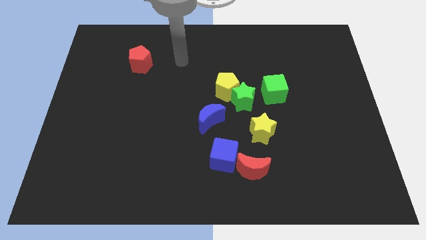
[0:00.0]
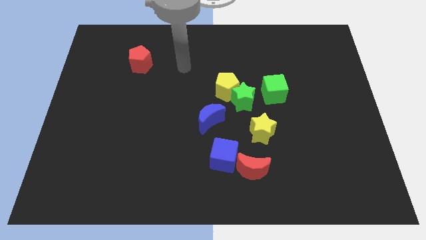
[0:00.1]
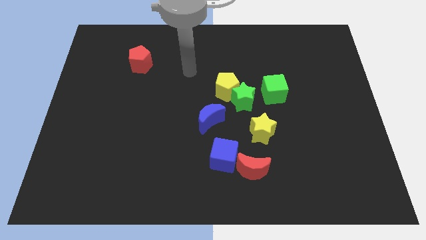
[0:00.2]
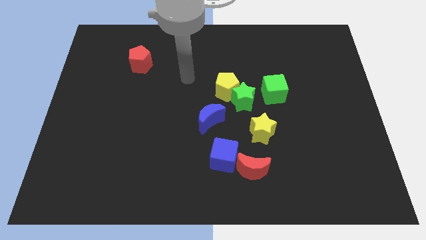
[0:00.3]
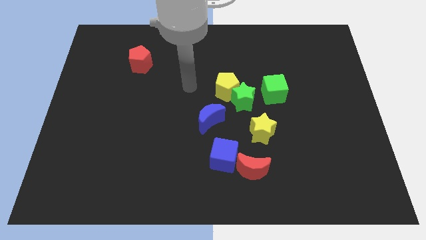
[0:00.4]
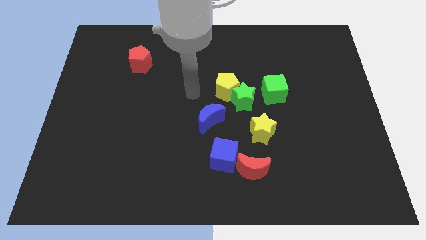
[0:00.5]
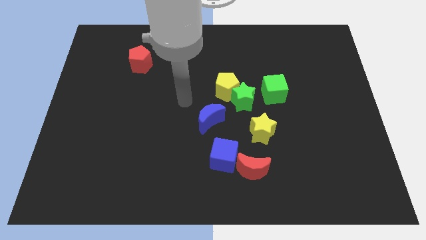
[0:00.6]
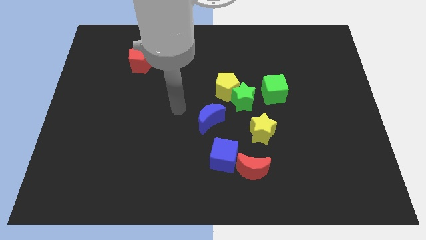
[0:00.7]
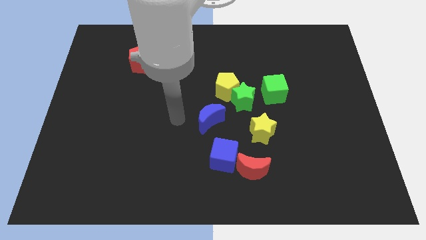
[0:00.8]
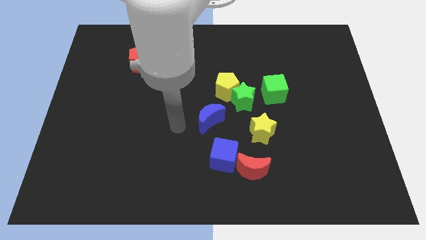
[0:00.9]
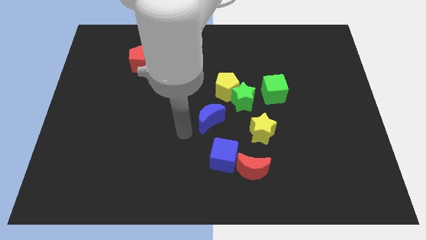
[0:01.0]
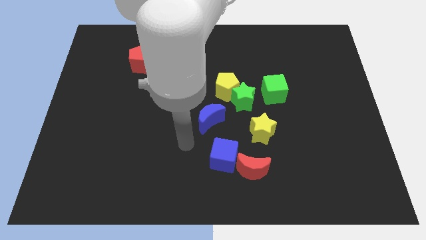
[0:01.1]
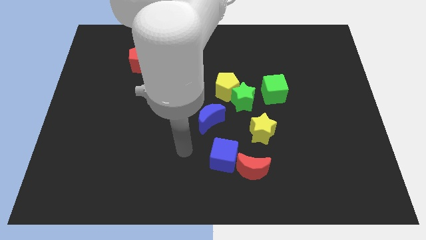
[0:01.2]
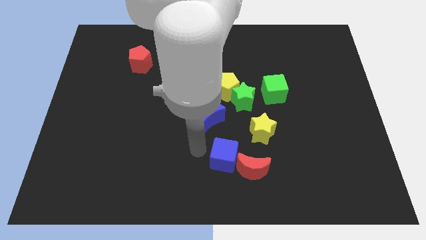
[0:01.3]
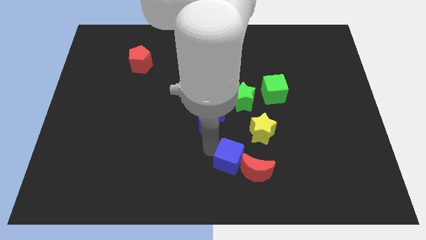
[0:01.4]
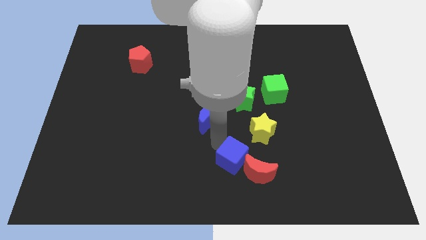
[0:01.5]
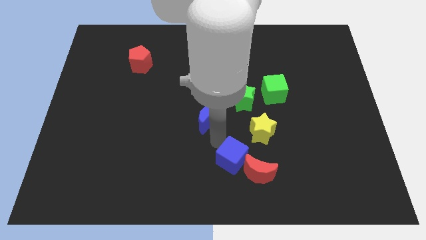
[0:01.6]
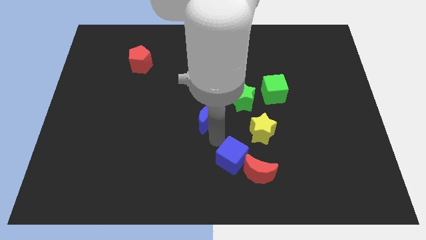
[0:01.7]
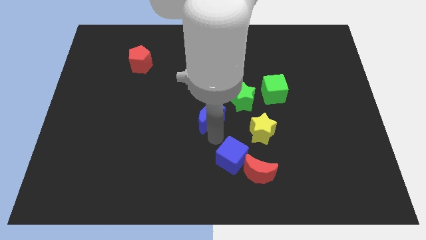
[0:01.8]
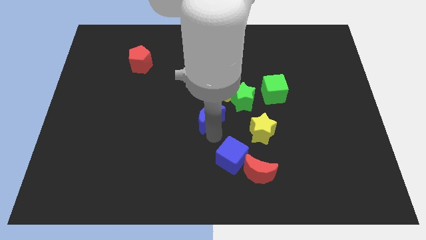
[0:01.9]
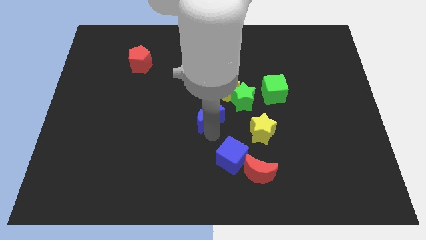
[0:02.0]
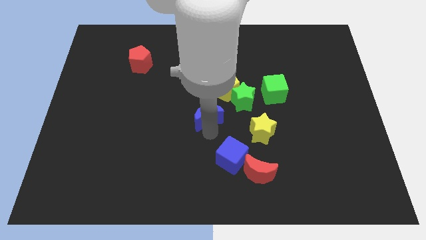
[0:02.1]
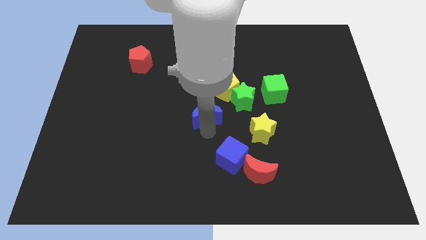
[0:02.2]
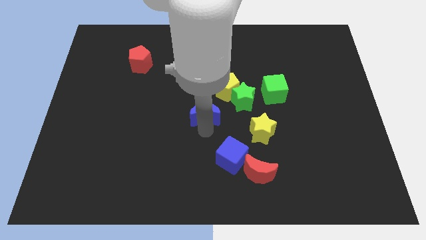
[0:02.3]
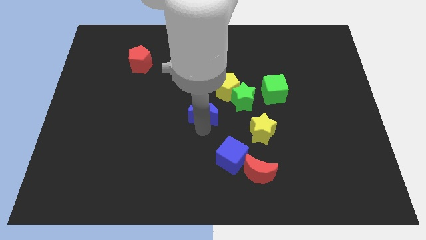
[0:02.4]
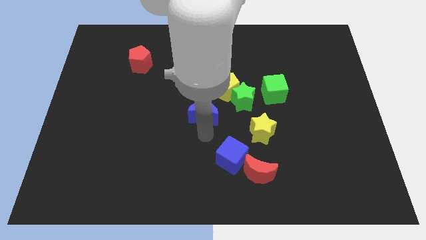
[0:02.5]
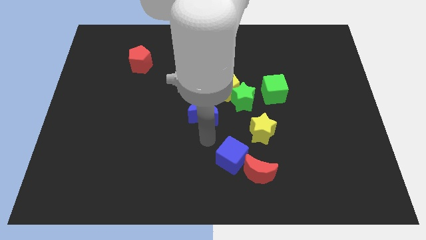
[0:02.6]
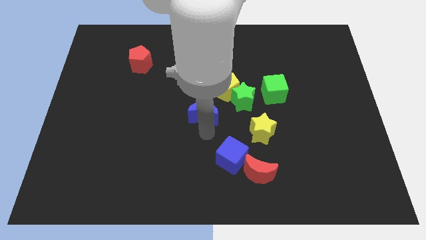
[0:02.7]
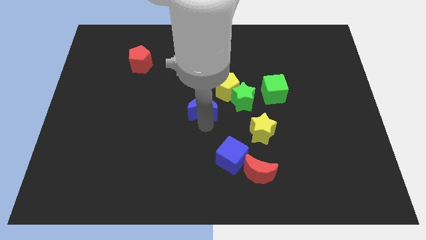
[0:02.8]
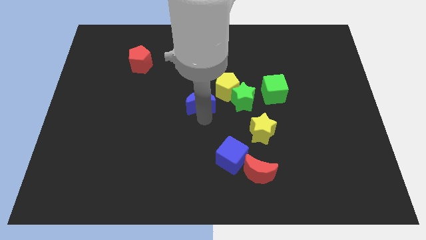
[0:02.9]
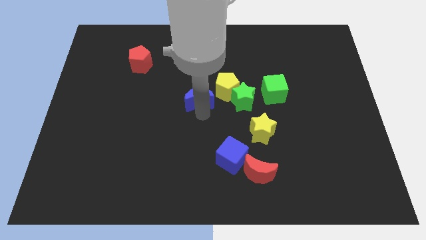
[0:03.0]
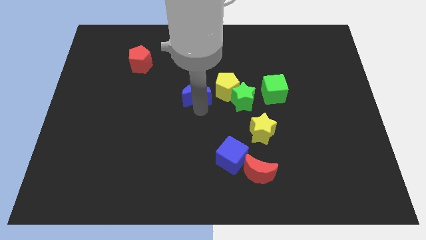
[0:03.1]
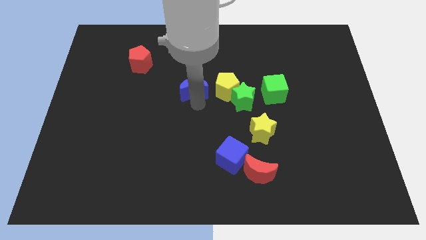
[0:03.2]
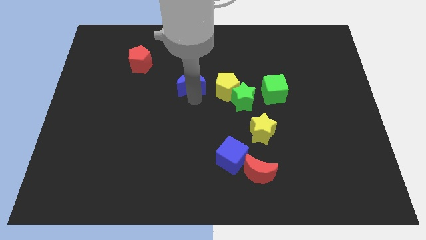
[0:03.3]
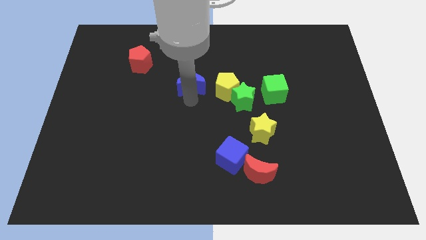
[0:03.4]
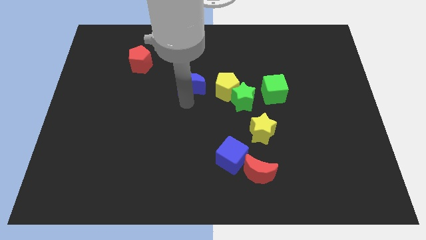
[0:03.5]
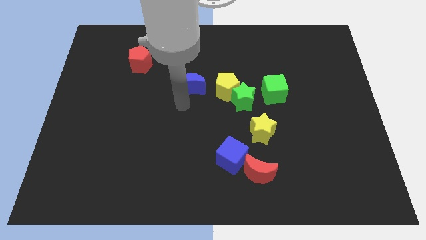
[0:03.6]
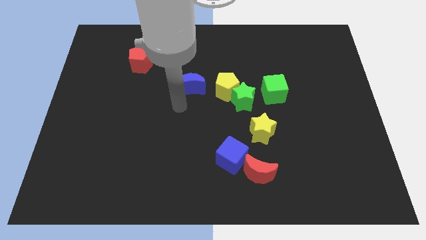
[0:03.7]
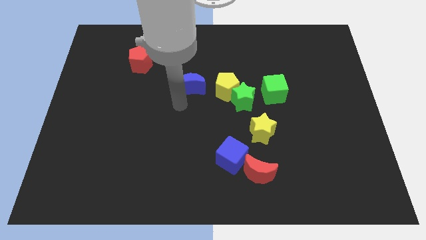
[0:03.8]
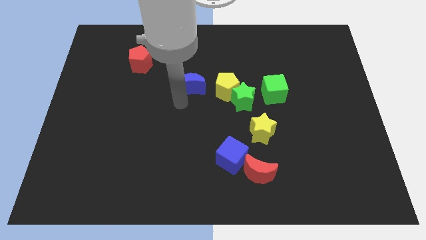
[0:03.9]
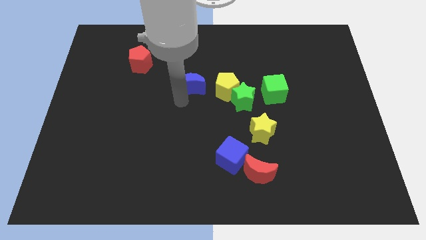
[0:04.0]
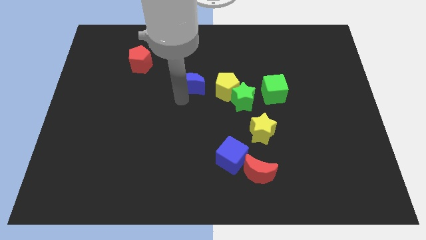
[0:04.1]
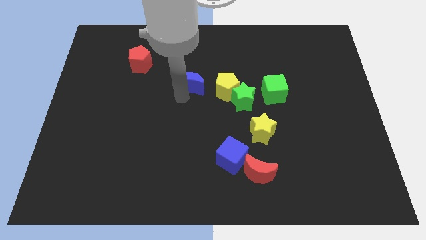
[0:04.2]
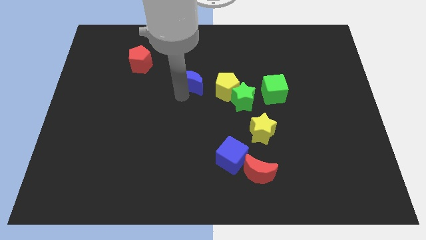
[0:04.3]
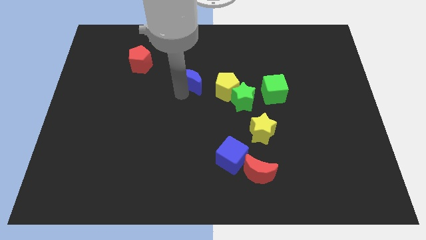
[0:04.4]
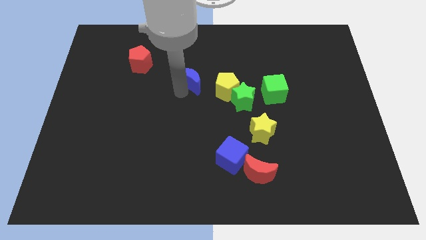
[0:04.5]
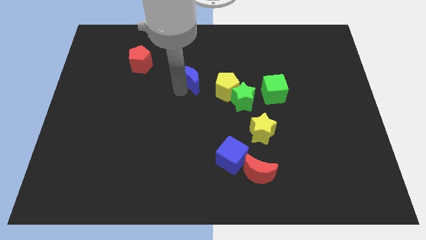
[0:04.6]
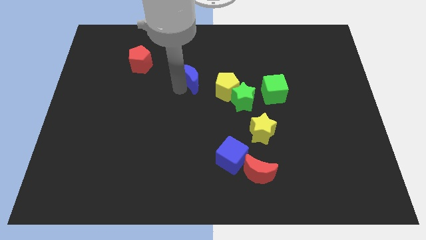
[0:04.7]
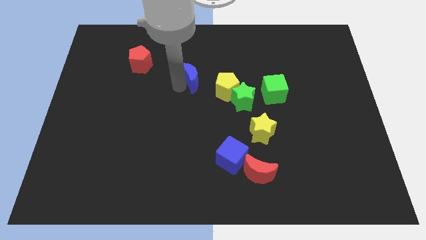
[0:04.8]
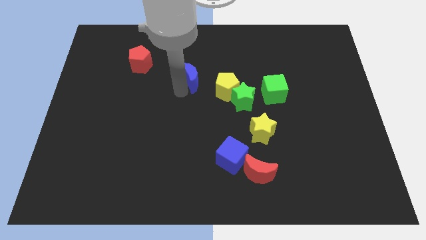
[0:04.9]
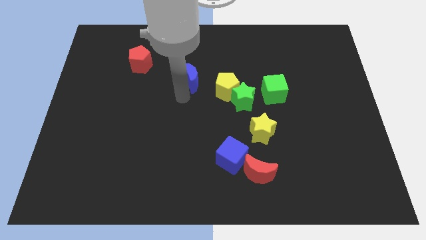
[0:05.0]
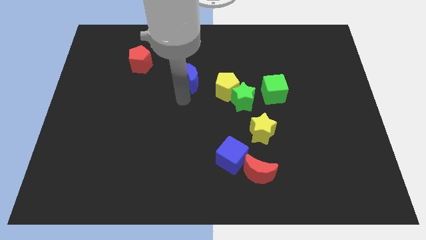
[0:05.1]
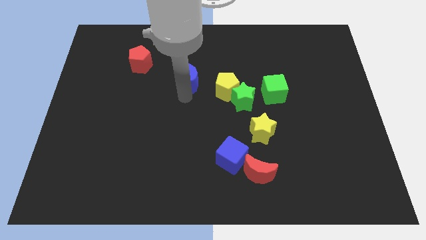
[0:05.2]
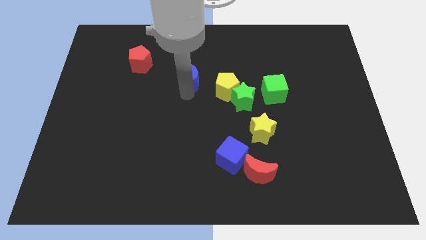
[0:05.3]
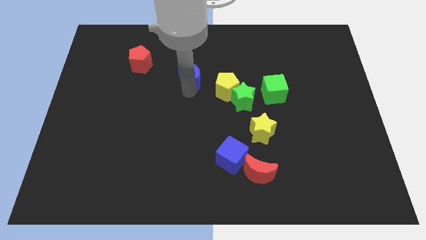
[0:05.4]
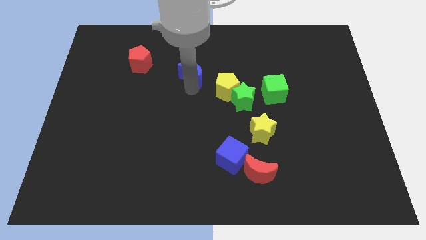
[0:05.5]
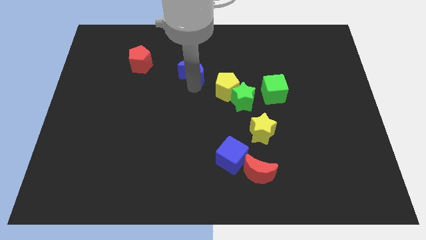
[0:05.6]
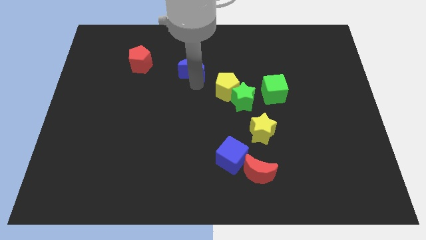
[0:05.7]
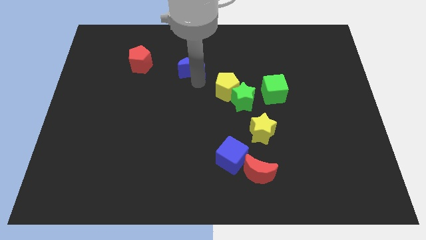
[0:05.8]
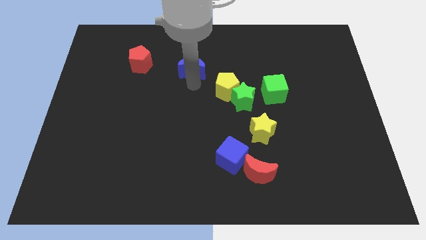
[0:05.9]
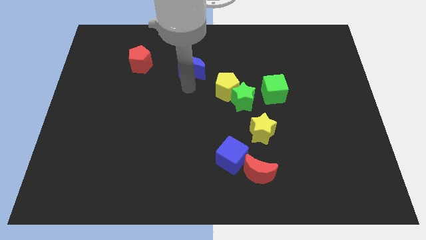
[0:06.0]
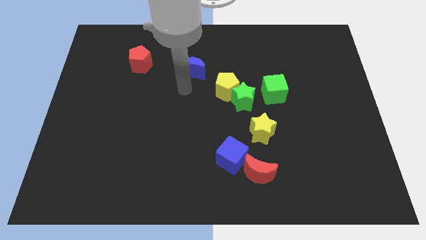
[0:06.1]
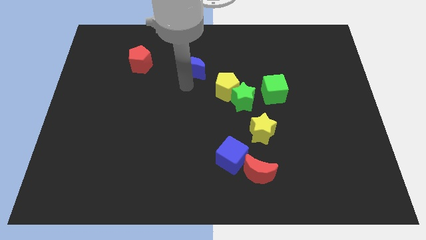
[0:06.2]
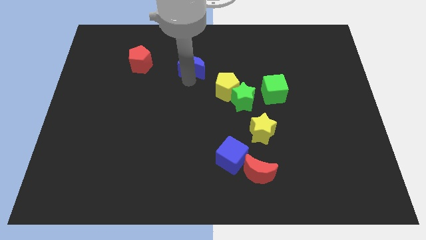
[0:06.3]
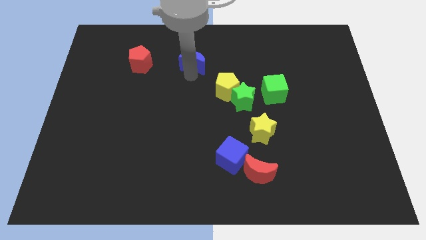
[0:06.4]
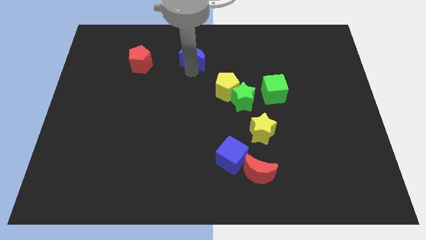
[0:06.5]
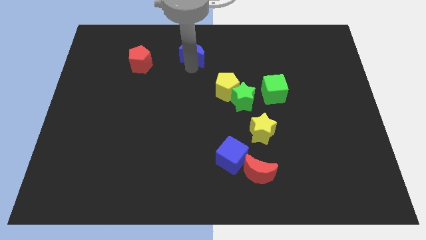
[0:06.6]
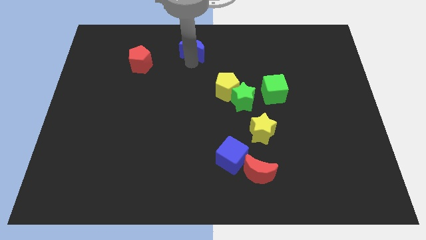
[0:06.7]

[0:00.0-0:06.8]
move the blue moon to the top
